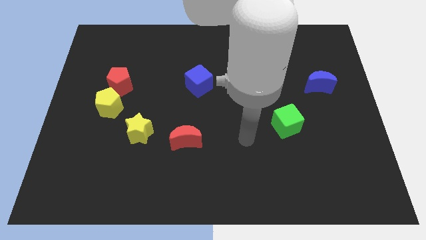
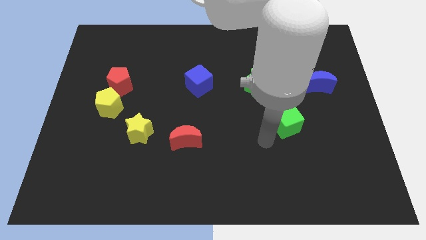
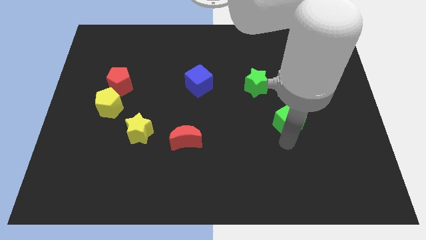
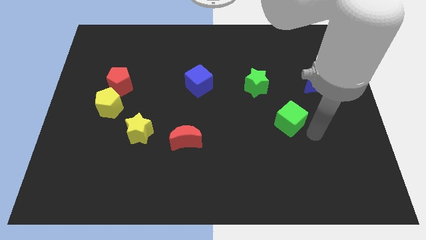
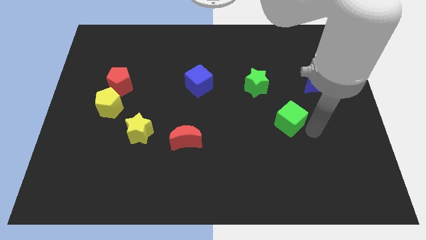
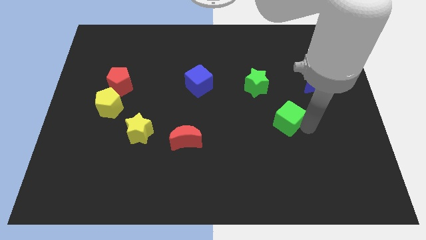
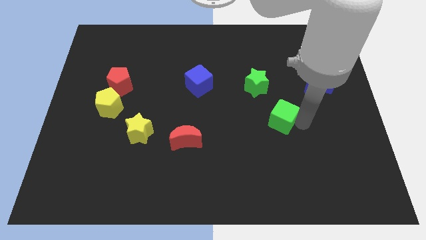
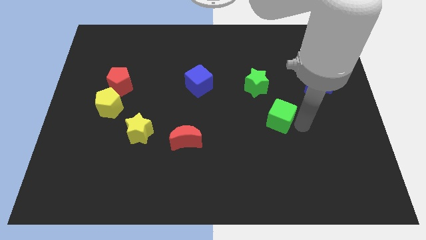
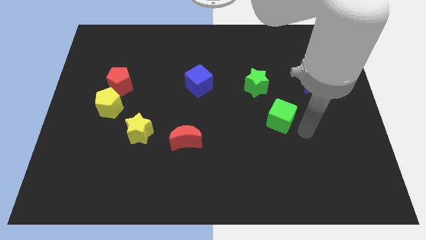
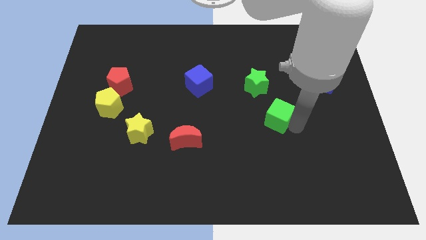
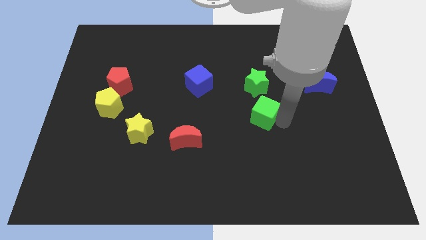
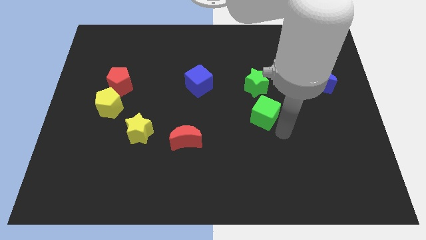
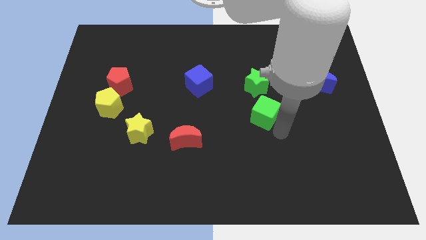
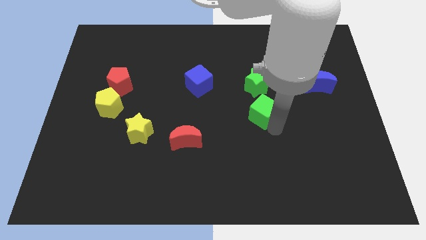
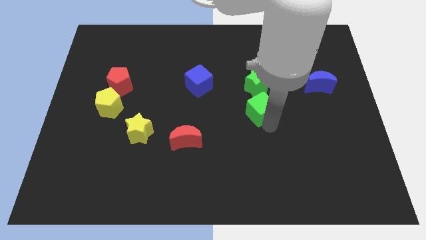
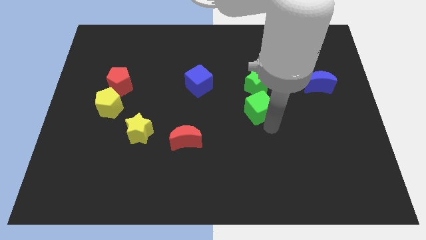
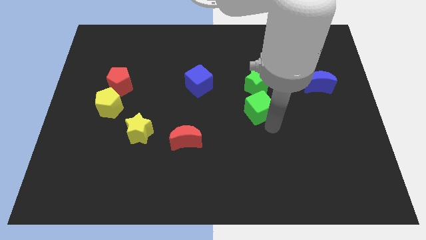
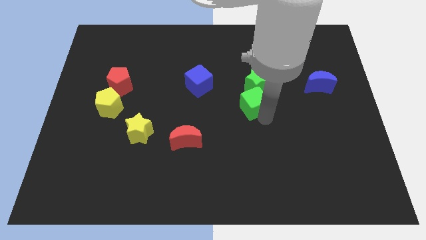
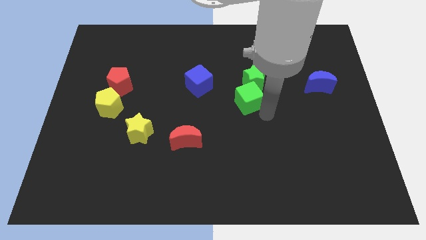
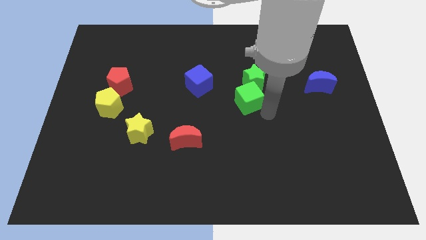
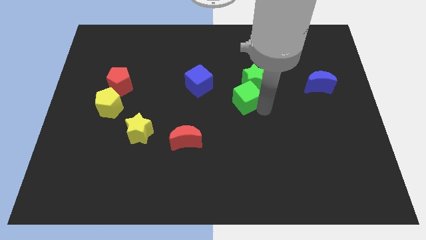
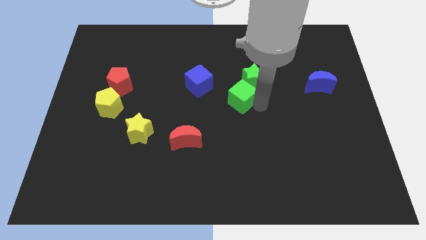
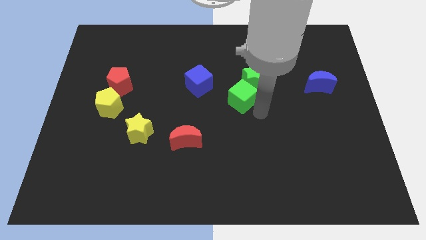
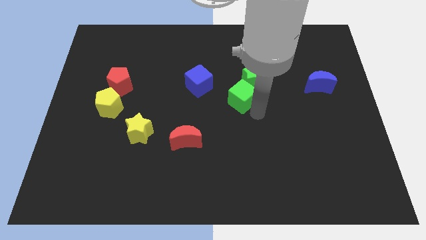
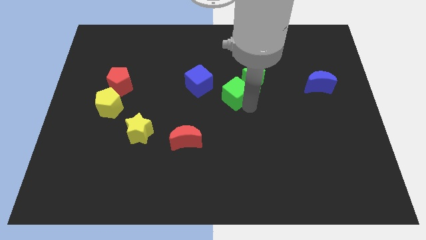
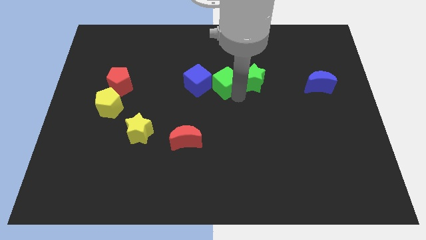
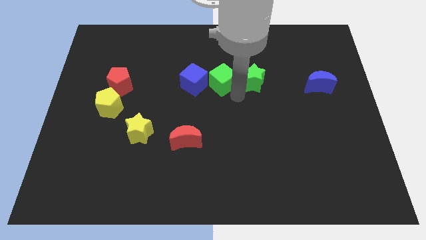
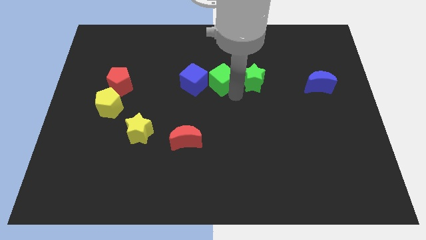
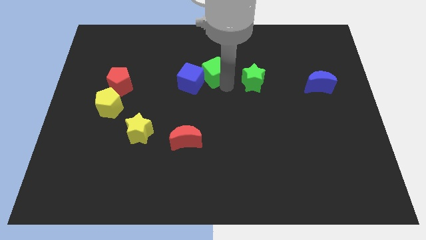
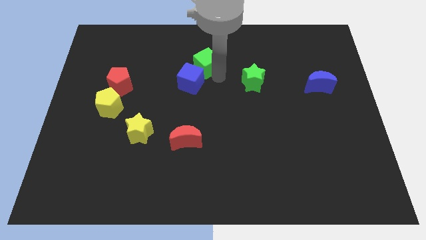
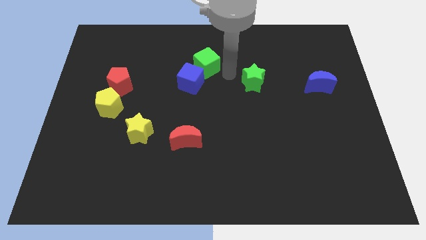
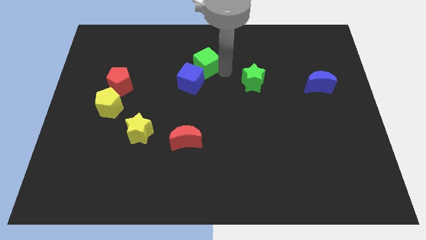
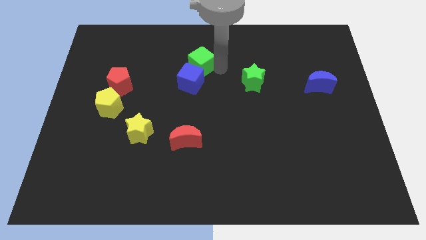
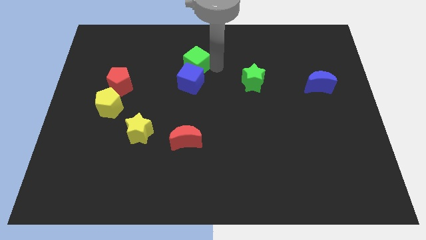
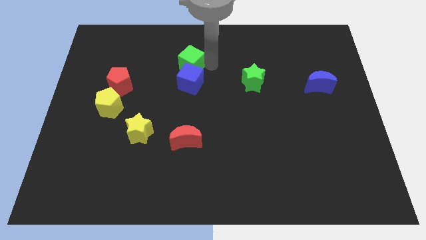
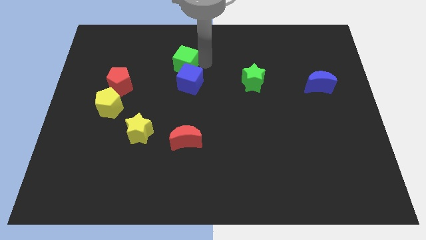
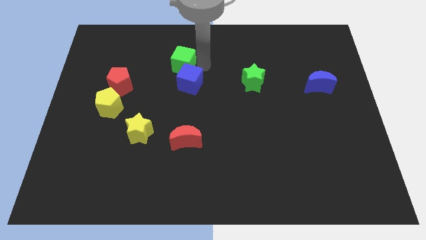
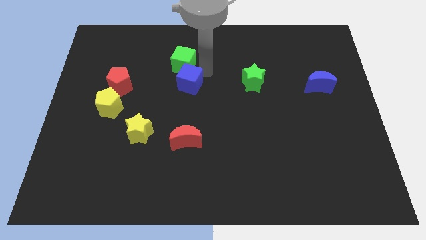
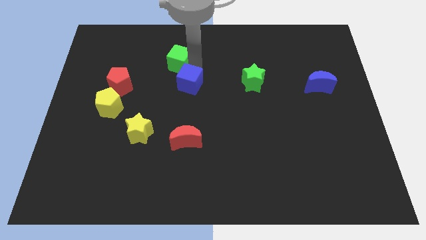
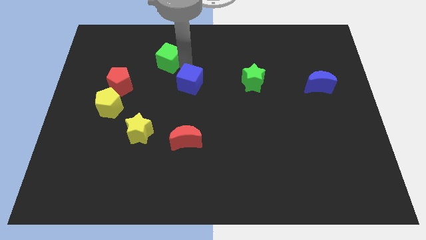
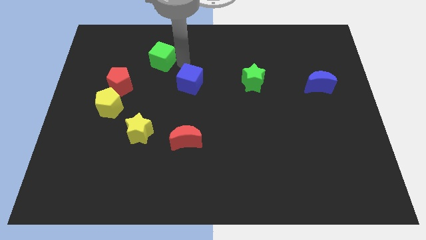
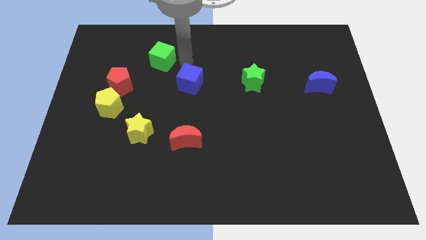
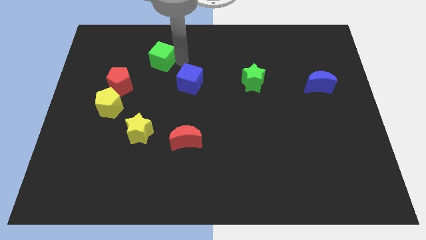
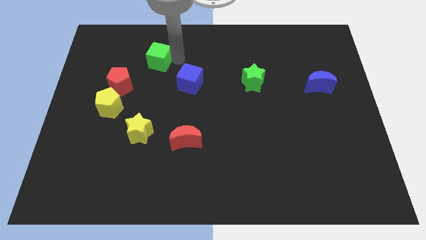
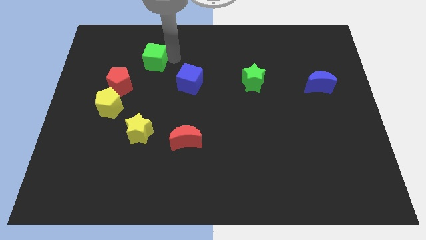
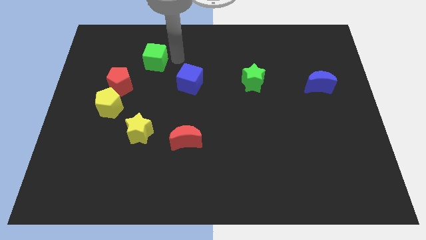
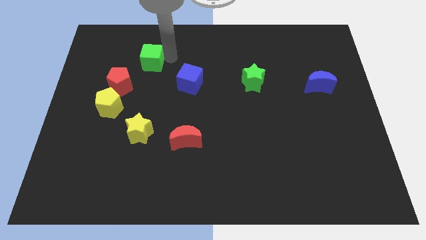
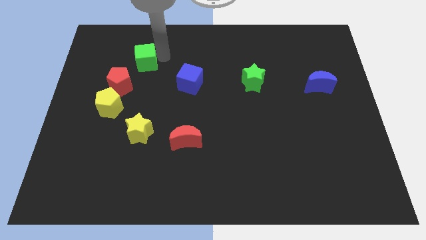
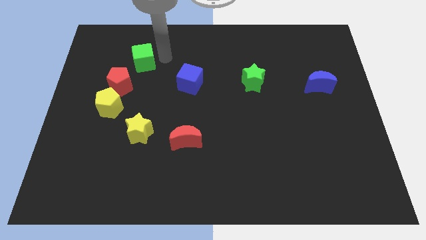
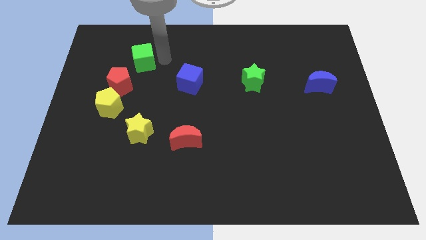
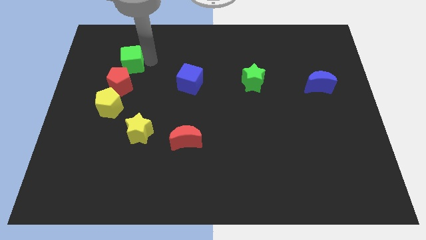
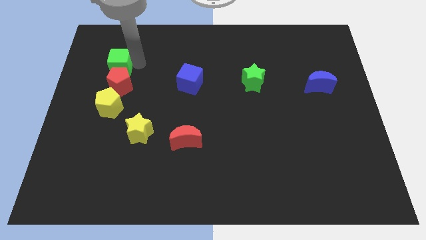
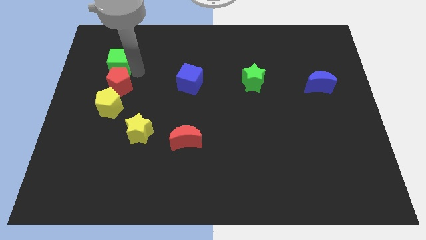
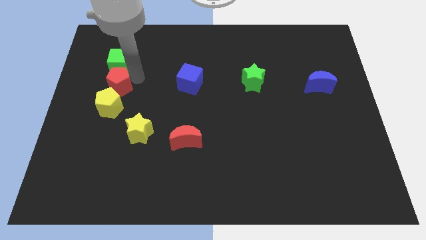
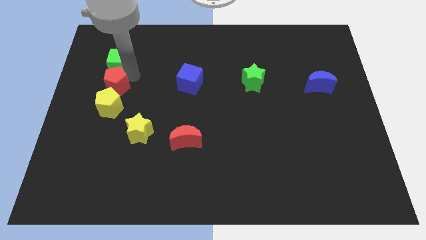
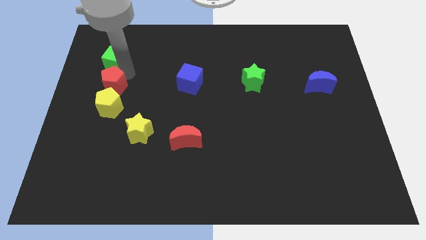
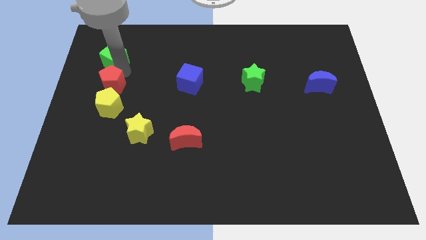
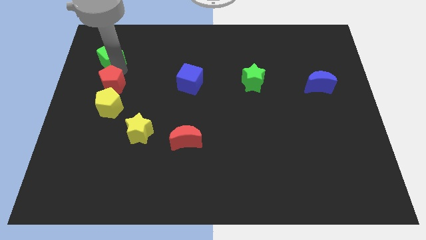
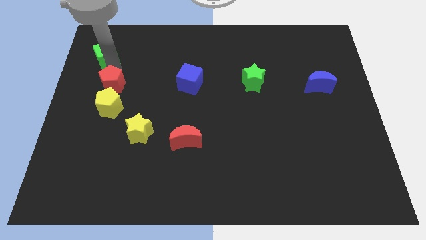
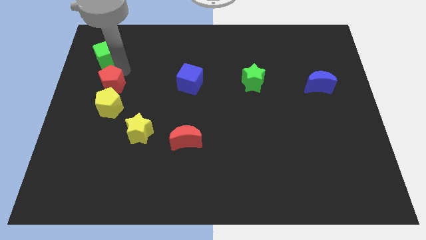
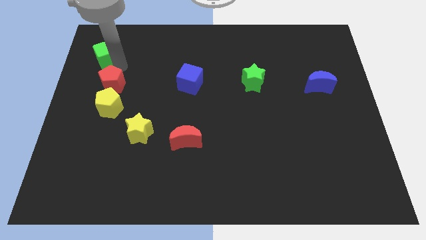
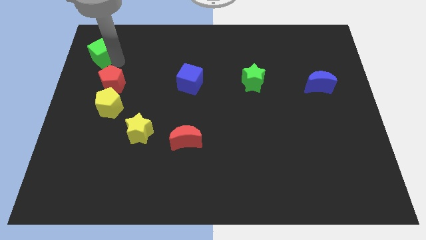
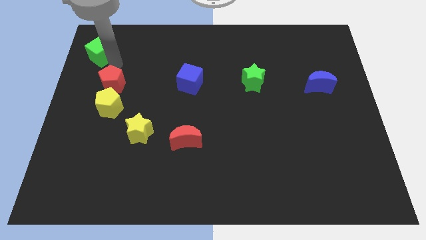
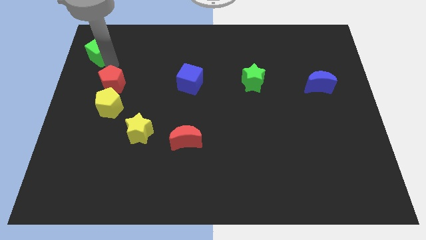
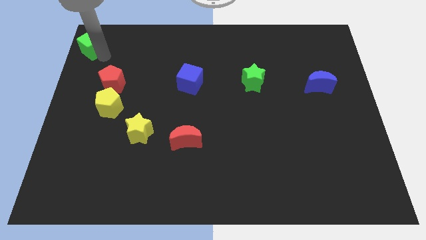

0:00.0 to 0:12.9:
slide the green cube to the top left of the board
